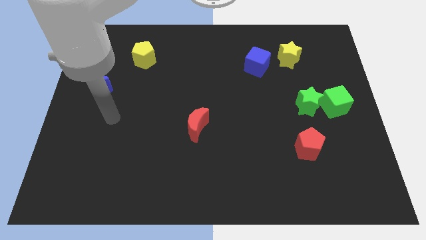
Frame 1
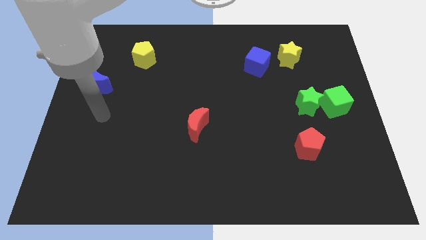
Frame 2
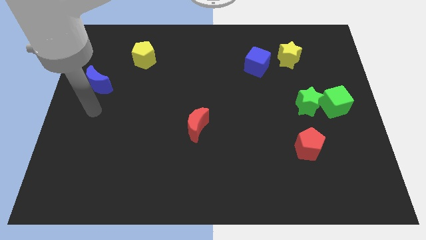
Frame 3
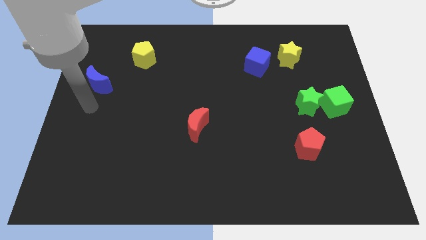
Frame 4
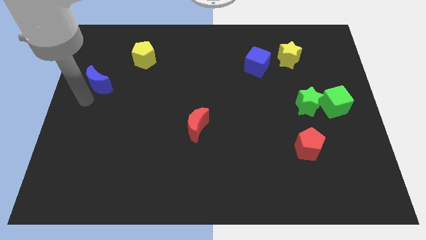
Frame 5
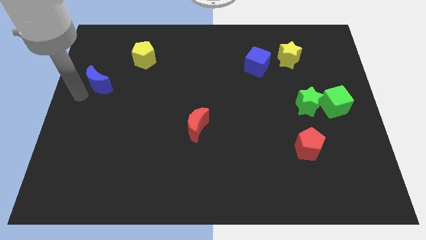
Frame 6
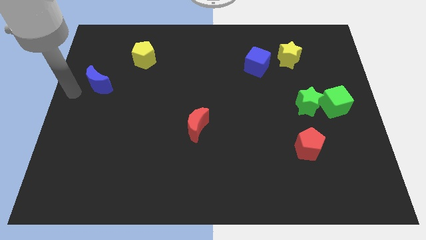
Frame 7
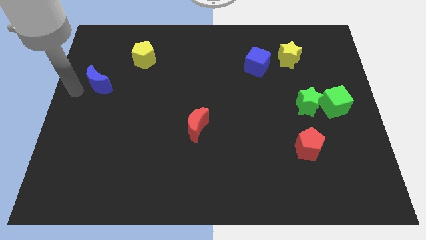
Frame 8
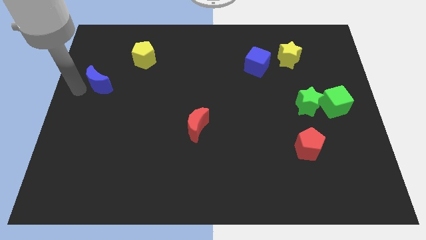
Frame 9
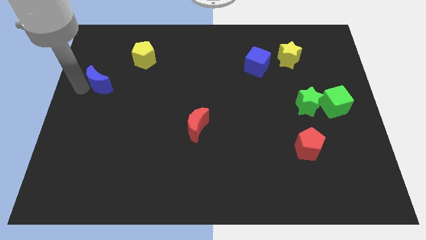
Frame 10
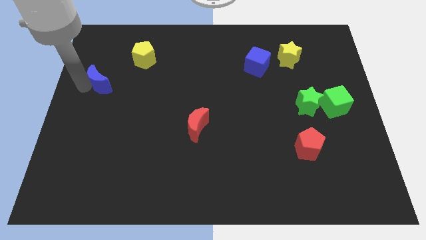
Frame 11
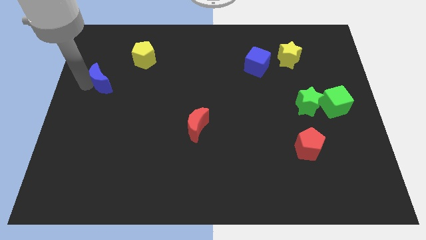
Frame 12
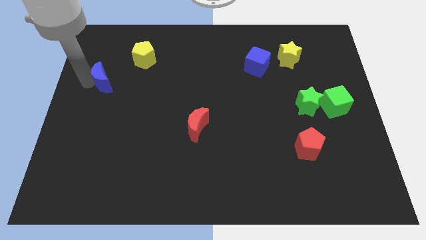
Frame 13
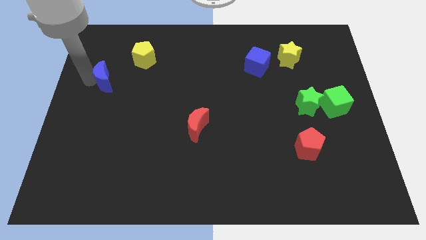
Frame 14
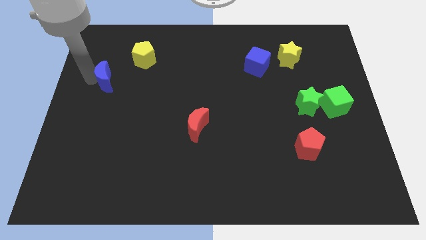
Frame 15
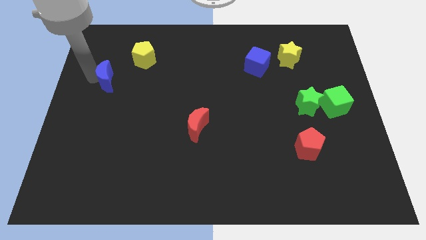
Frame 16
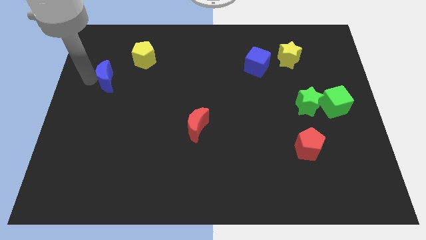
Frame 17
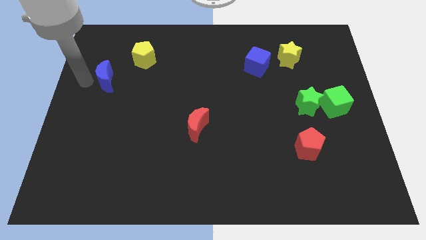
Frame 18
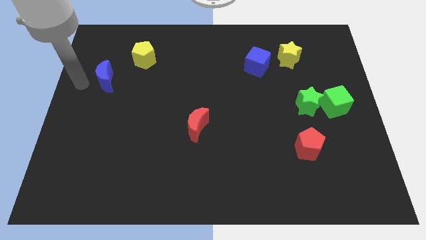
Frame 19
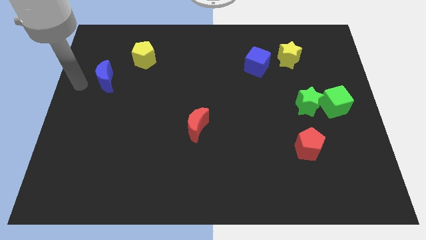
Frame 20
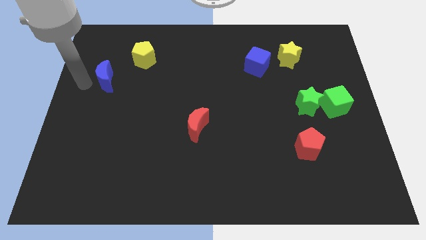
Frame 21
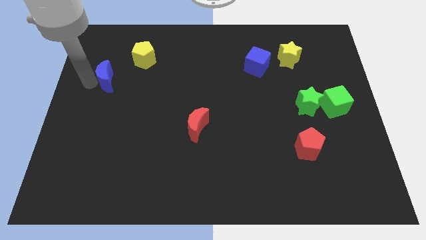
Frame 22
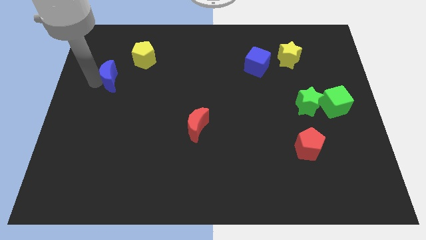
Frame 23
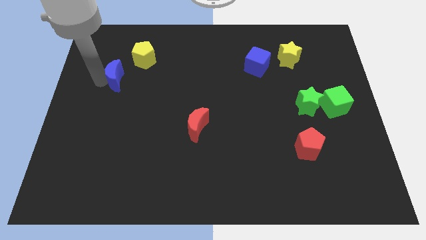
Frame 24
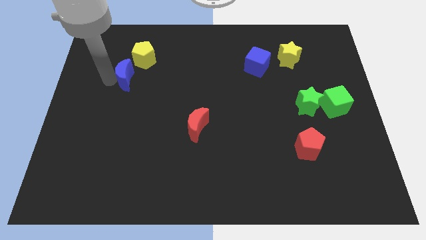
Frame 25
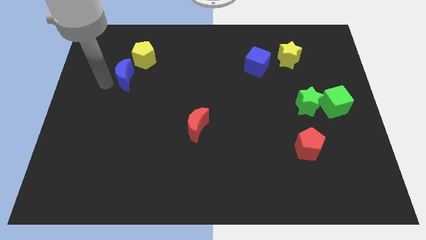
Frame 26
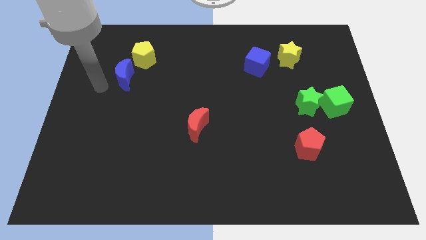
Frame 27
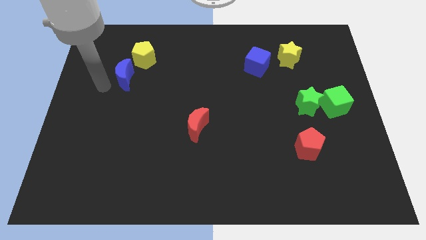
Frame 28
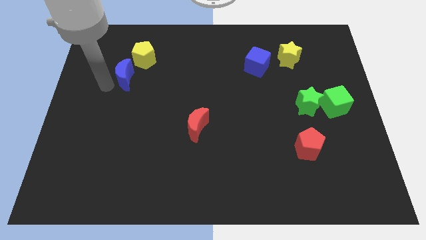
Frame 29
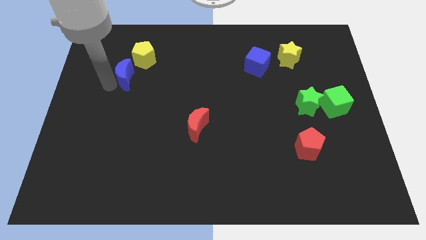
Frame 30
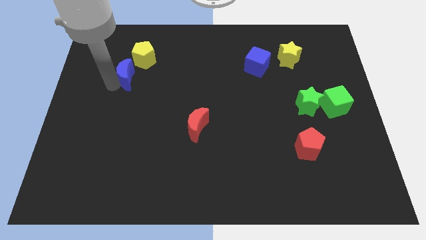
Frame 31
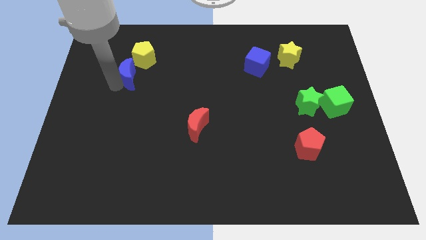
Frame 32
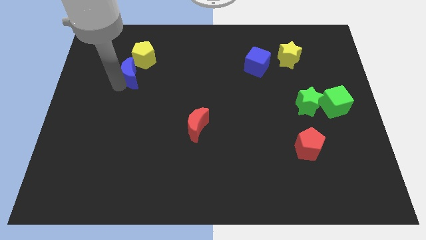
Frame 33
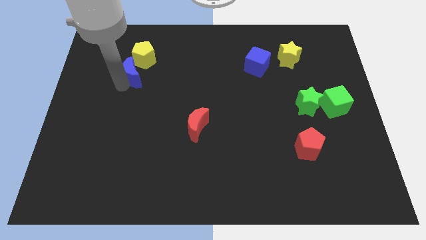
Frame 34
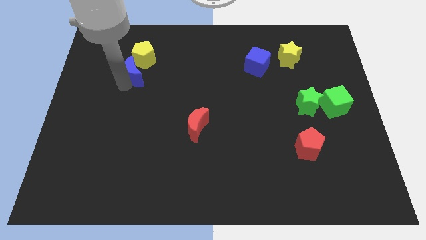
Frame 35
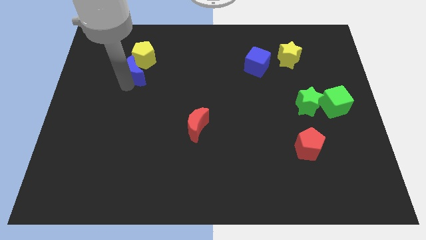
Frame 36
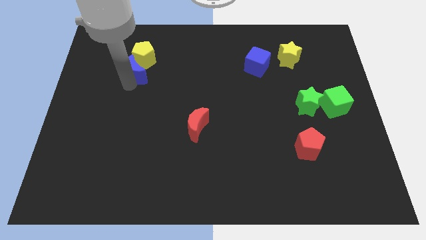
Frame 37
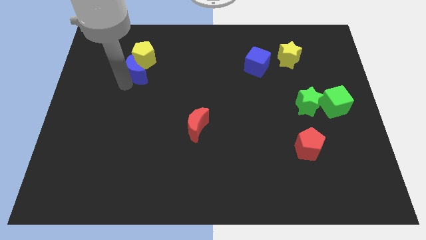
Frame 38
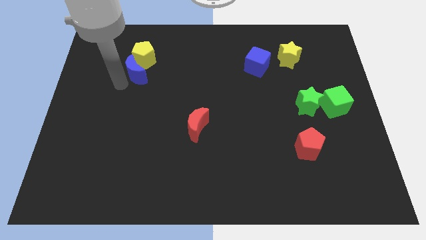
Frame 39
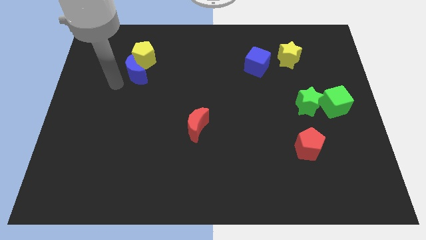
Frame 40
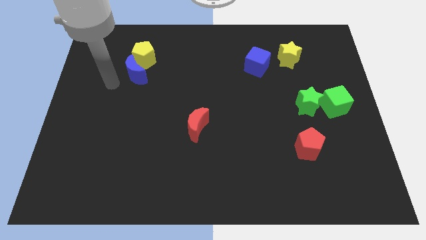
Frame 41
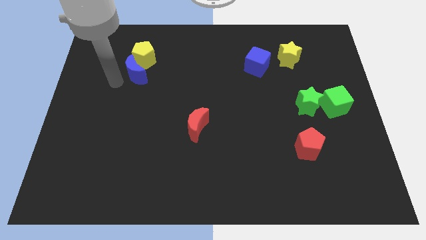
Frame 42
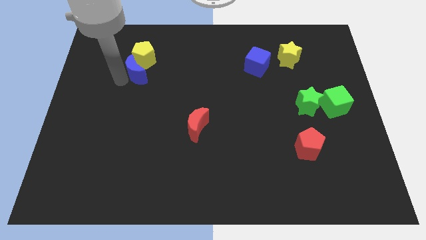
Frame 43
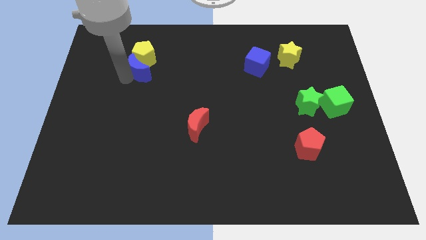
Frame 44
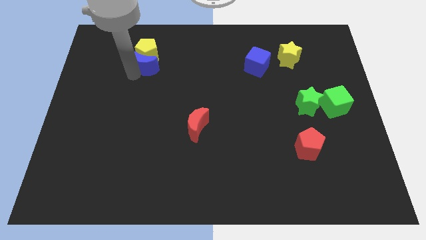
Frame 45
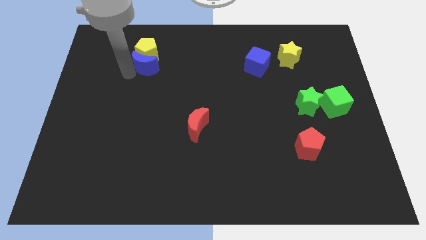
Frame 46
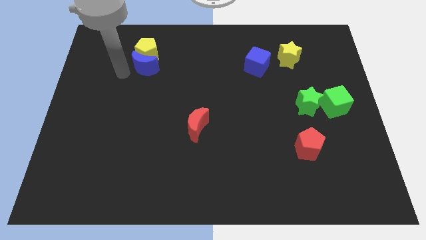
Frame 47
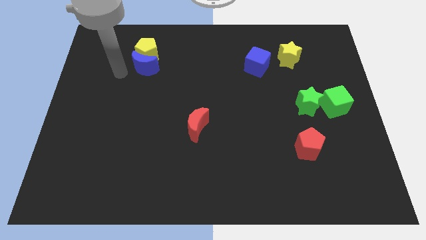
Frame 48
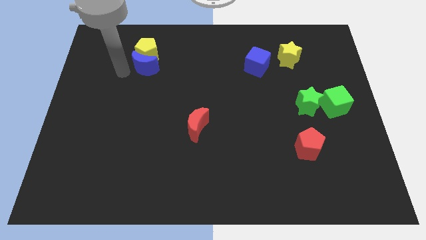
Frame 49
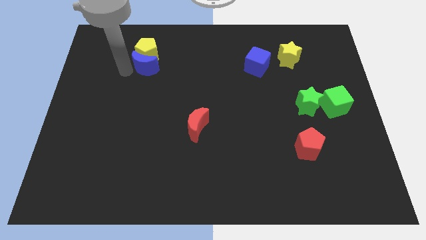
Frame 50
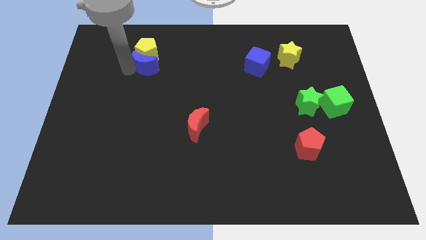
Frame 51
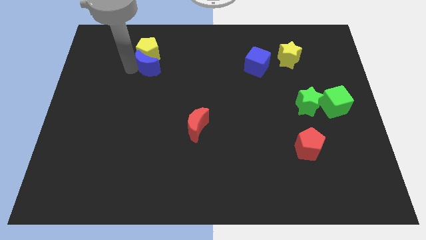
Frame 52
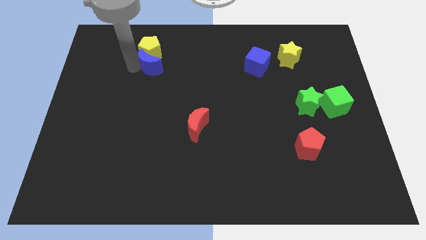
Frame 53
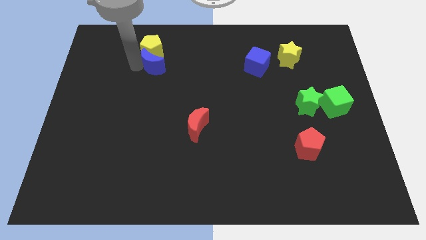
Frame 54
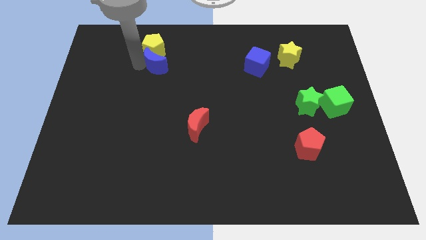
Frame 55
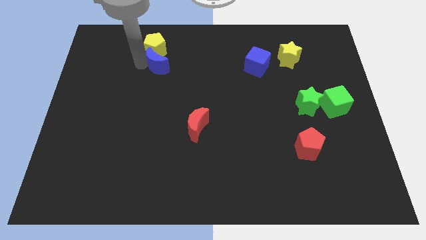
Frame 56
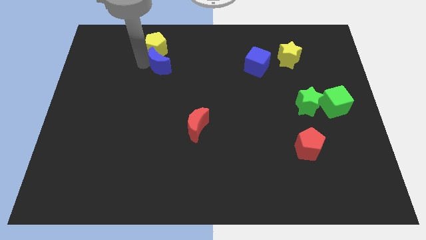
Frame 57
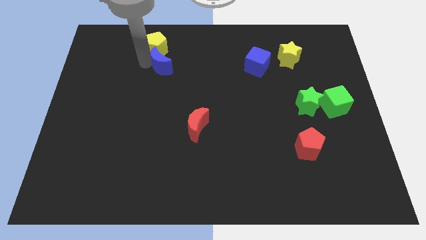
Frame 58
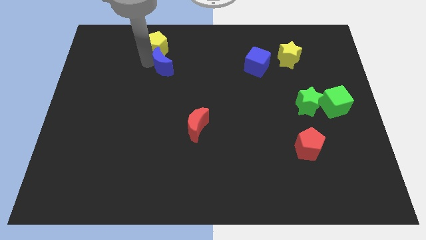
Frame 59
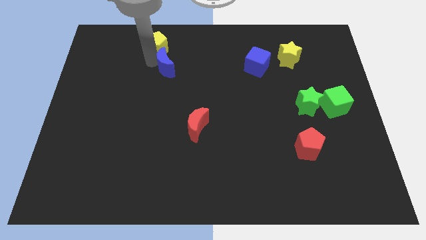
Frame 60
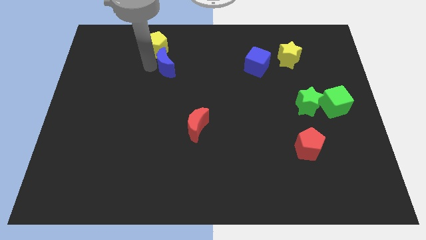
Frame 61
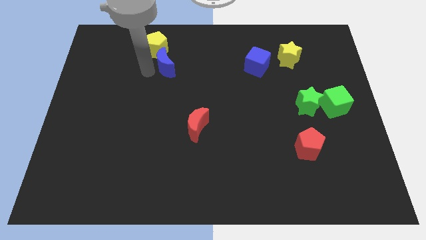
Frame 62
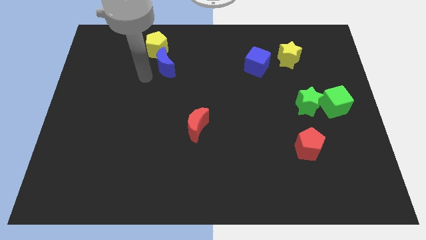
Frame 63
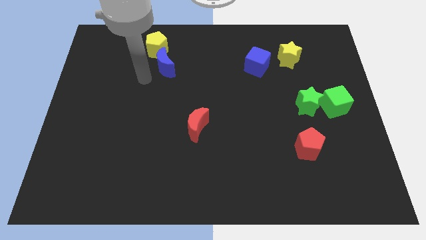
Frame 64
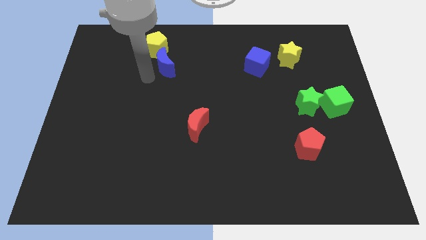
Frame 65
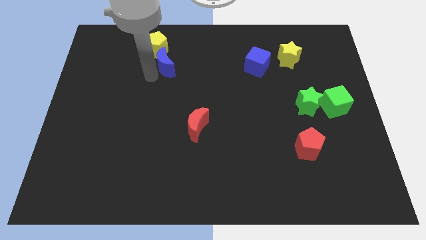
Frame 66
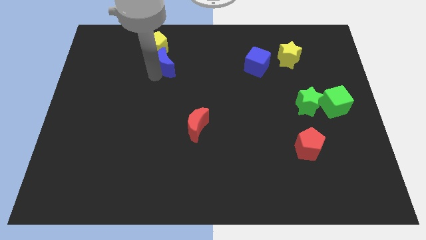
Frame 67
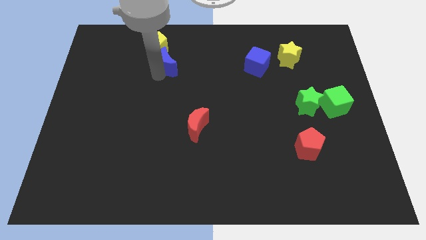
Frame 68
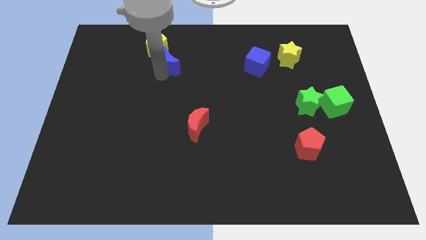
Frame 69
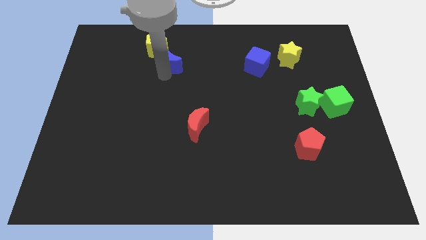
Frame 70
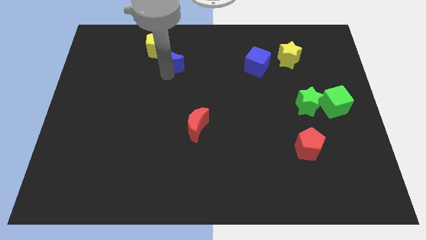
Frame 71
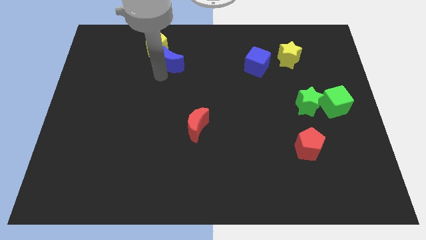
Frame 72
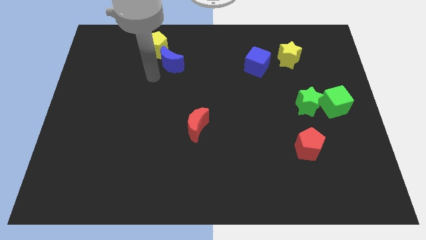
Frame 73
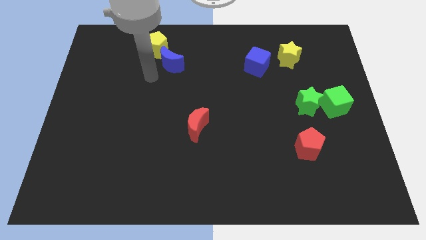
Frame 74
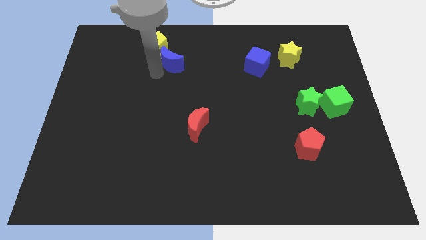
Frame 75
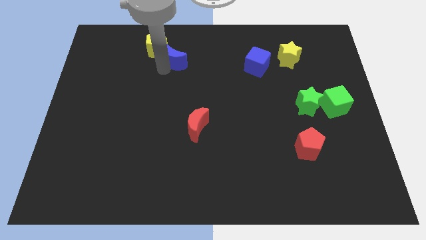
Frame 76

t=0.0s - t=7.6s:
move the blue moon to the right side of the yellow pentagon
